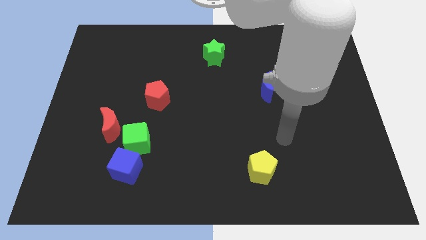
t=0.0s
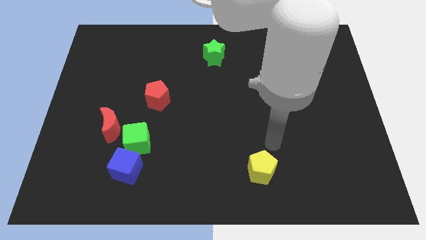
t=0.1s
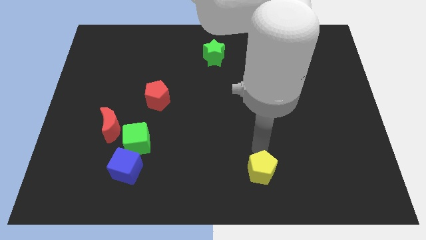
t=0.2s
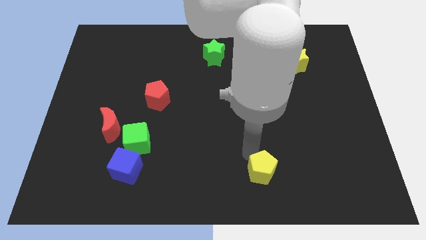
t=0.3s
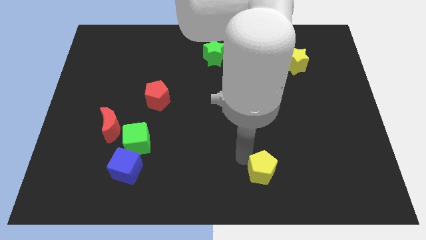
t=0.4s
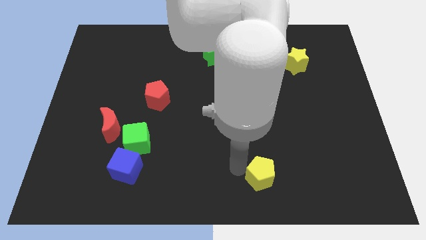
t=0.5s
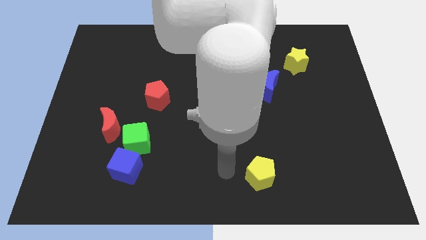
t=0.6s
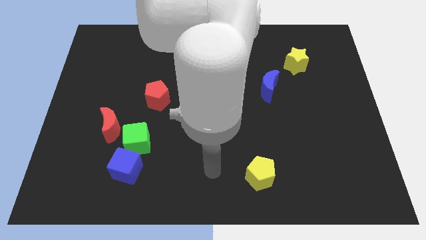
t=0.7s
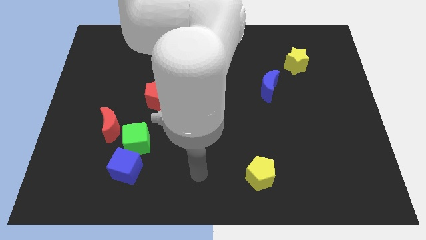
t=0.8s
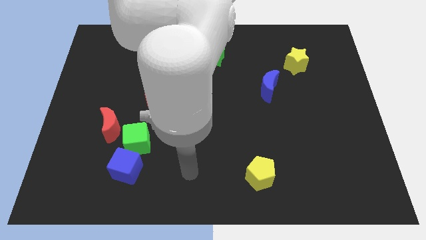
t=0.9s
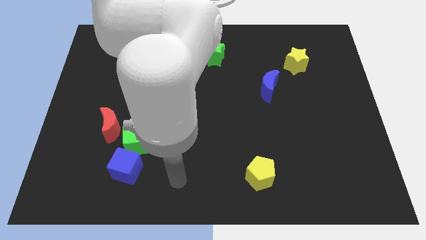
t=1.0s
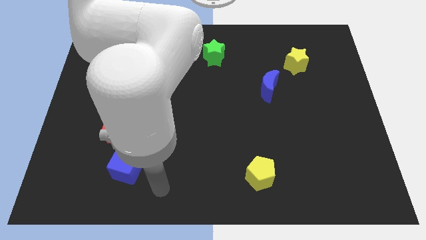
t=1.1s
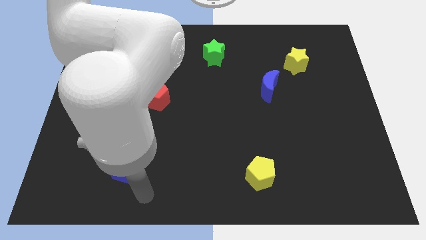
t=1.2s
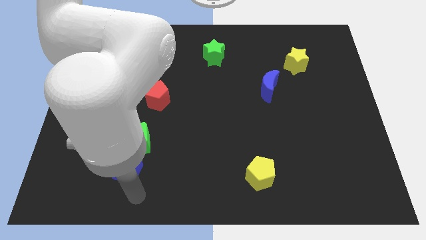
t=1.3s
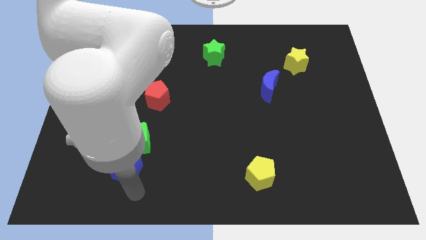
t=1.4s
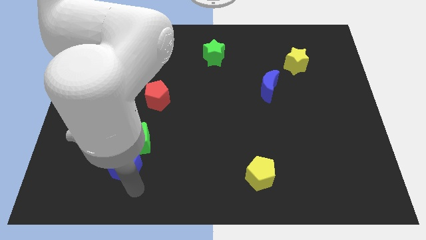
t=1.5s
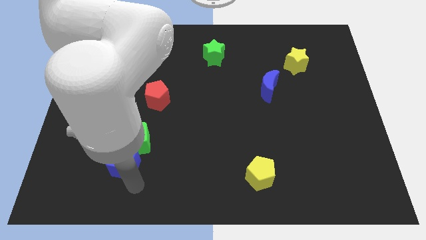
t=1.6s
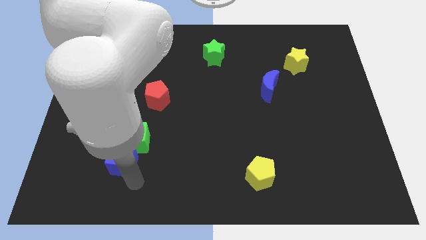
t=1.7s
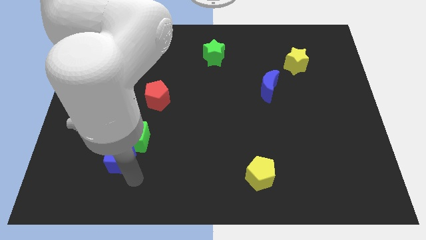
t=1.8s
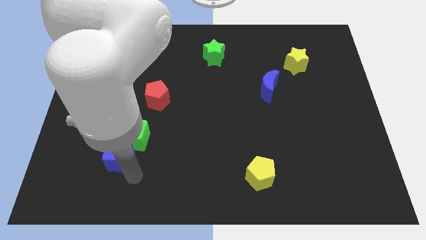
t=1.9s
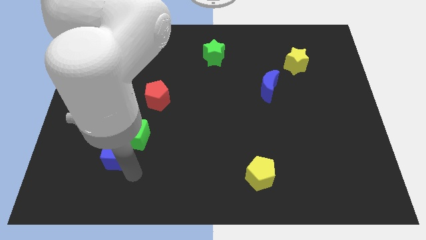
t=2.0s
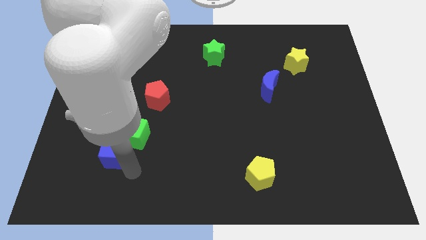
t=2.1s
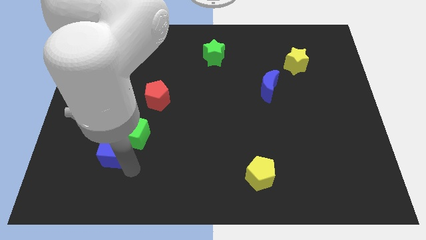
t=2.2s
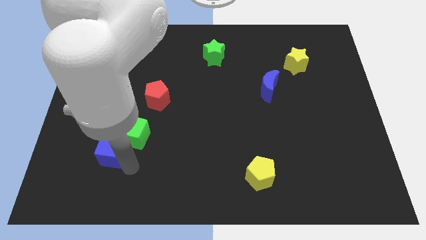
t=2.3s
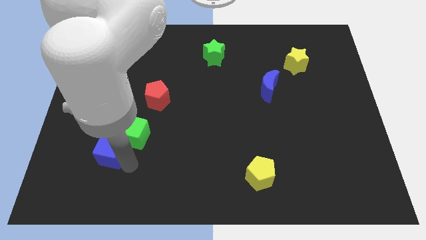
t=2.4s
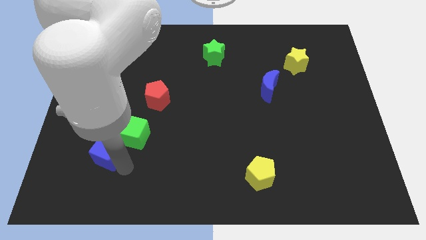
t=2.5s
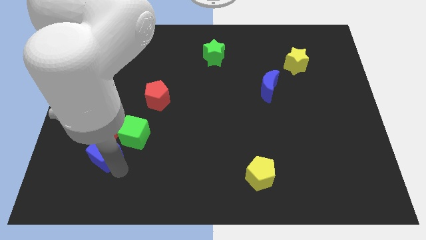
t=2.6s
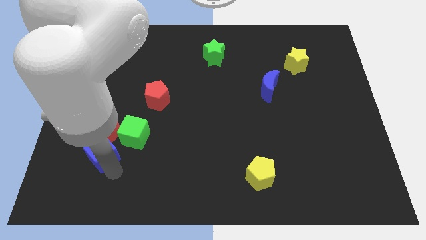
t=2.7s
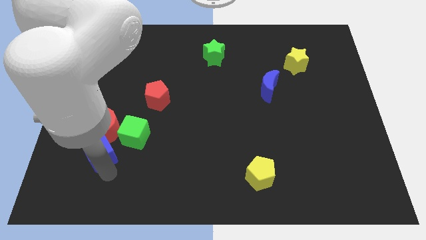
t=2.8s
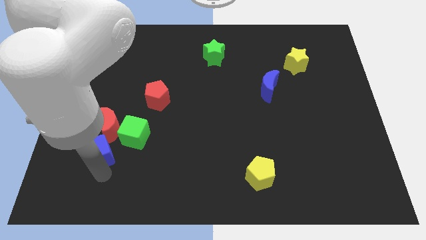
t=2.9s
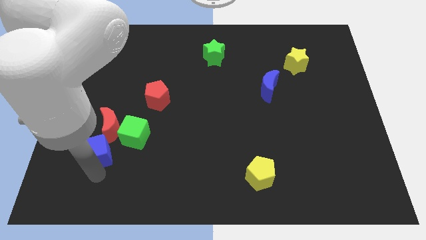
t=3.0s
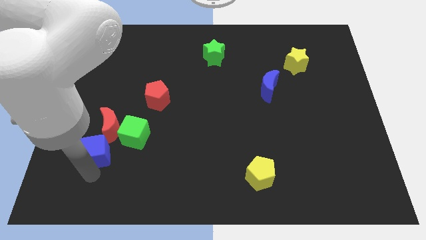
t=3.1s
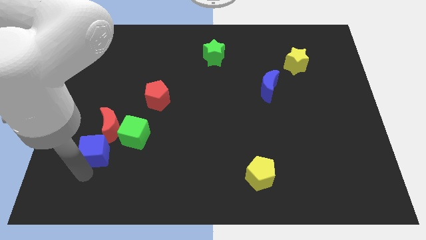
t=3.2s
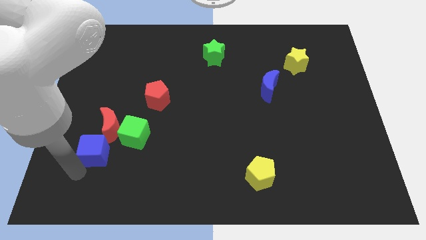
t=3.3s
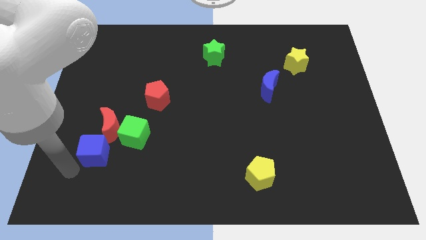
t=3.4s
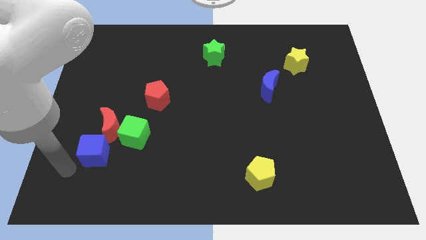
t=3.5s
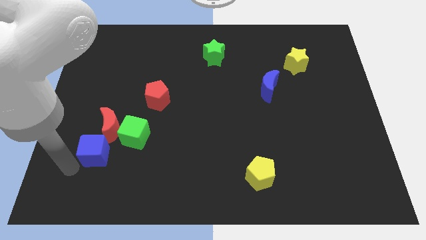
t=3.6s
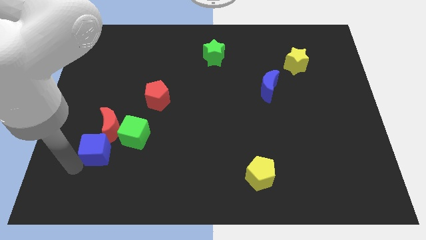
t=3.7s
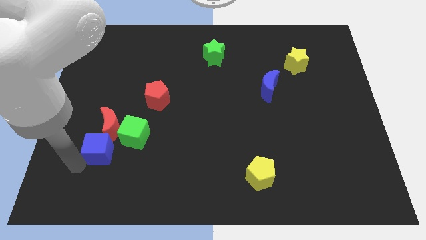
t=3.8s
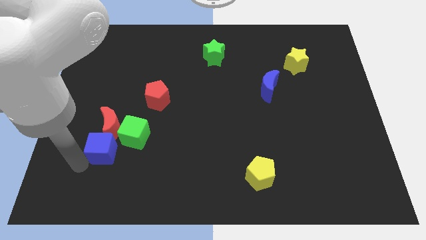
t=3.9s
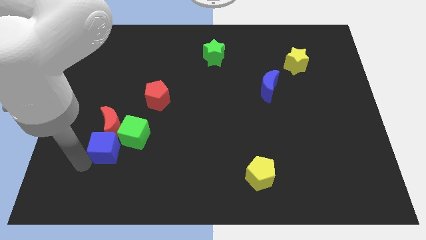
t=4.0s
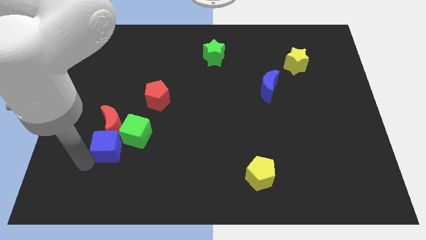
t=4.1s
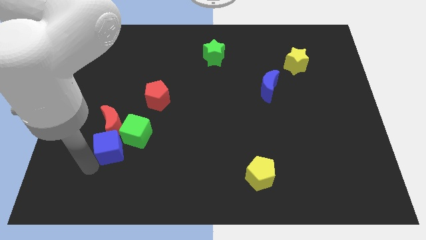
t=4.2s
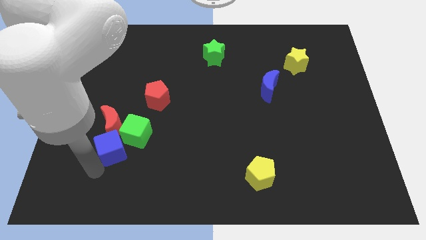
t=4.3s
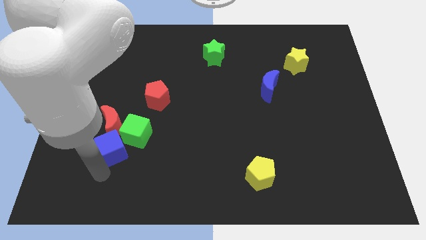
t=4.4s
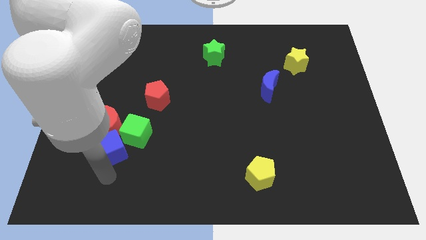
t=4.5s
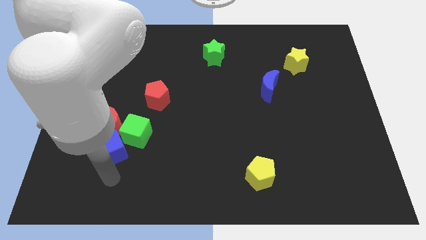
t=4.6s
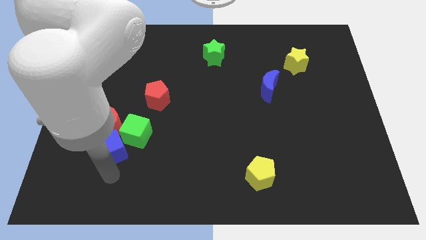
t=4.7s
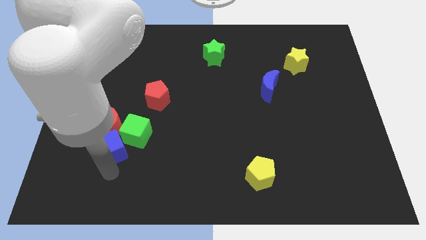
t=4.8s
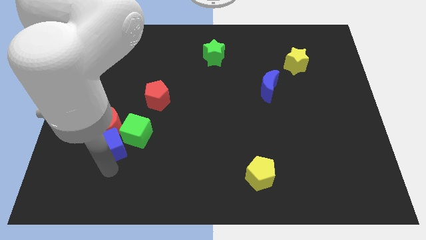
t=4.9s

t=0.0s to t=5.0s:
push the blue cube towards the red moon

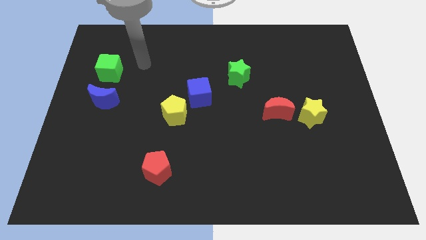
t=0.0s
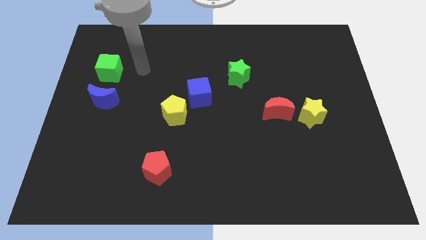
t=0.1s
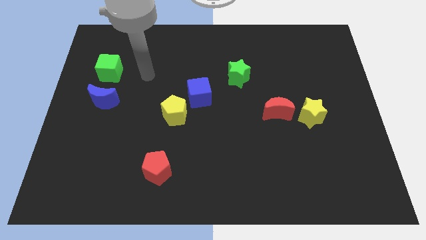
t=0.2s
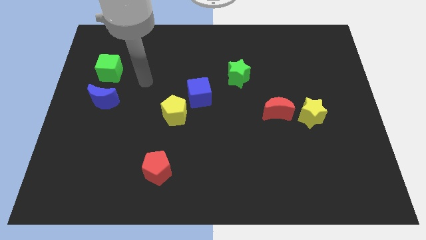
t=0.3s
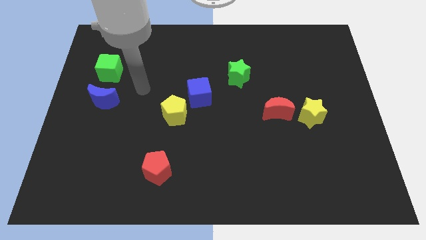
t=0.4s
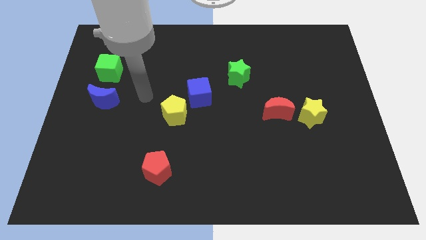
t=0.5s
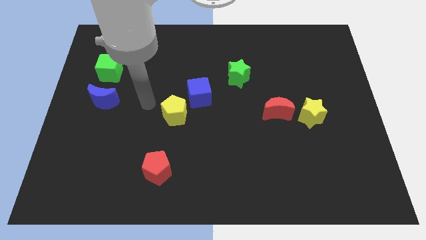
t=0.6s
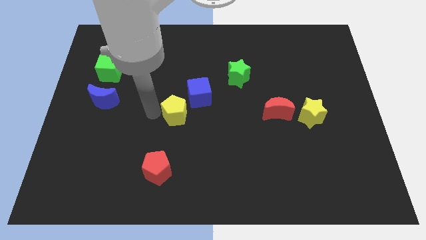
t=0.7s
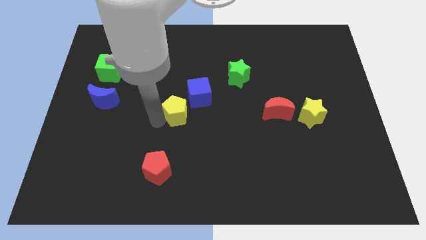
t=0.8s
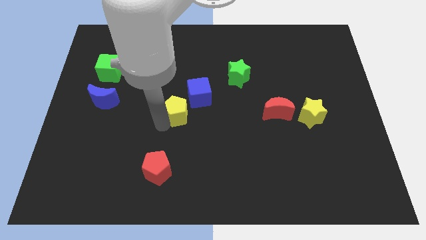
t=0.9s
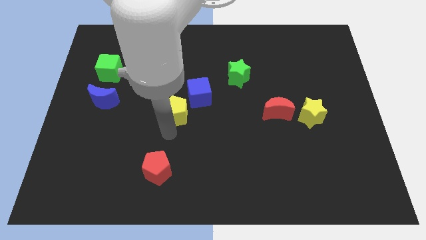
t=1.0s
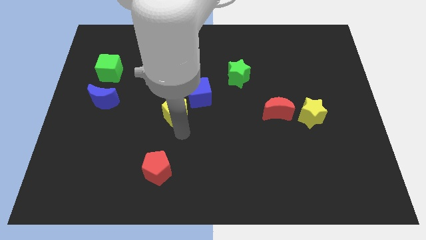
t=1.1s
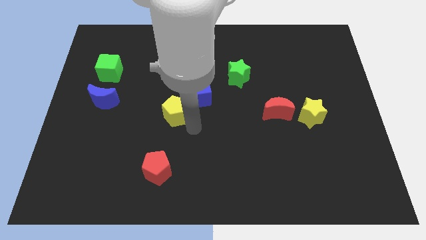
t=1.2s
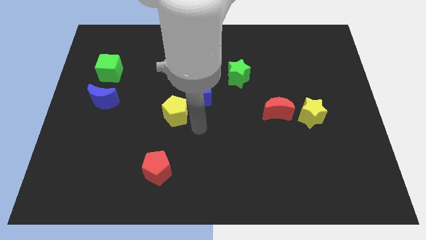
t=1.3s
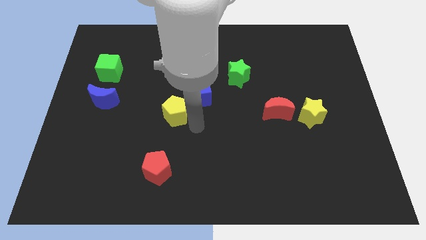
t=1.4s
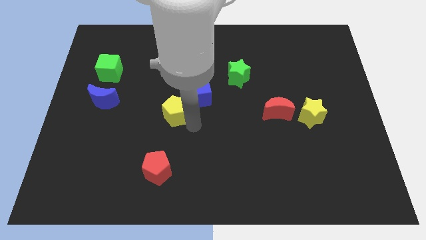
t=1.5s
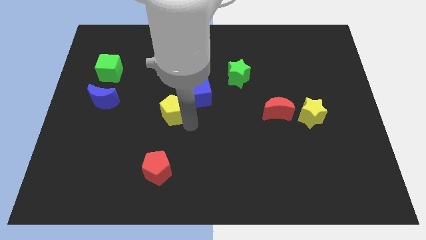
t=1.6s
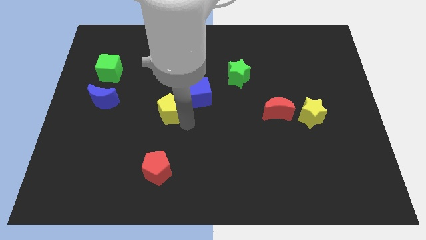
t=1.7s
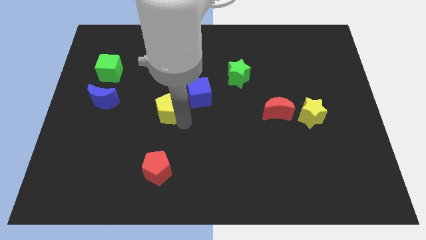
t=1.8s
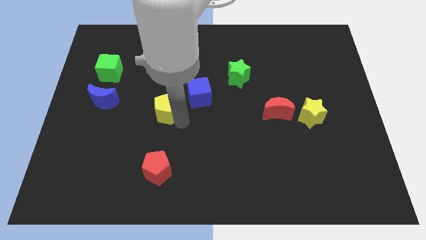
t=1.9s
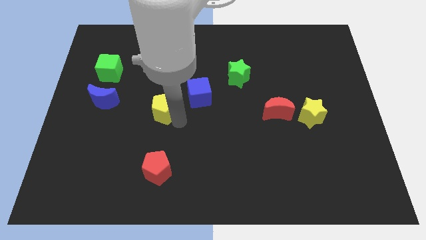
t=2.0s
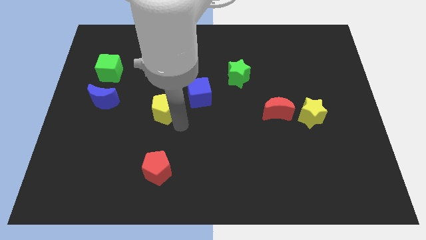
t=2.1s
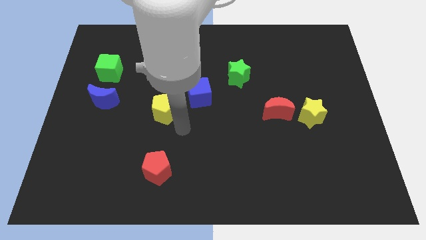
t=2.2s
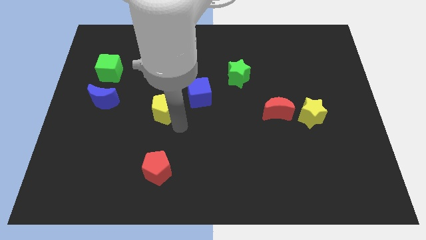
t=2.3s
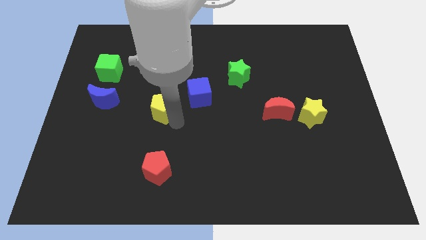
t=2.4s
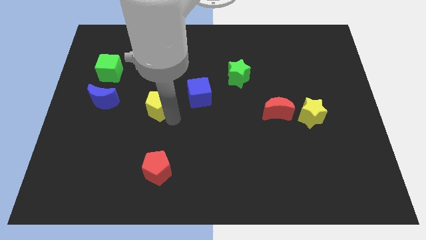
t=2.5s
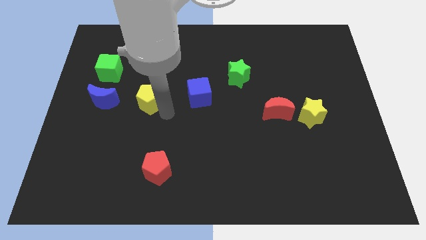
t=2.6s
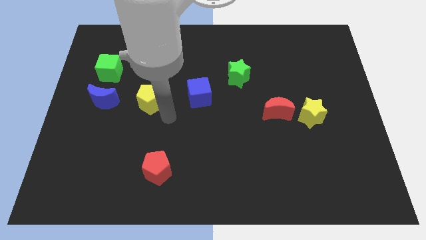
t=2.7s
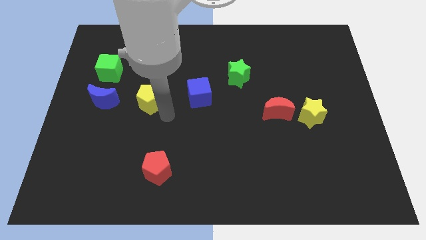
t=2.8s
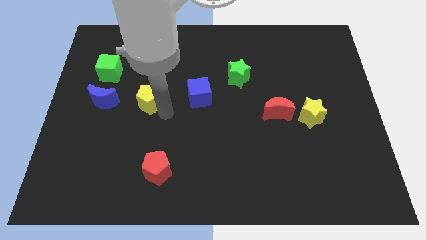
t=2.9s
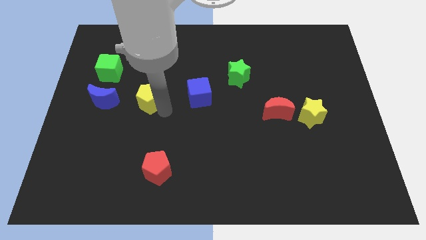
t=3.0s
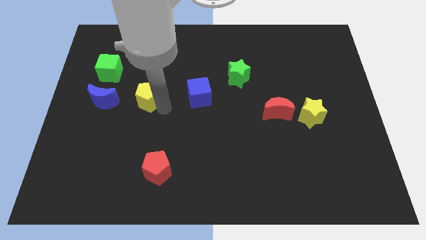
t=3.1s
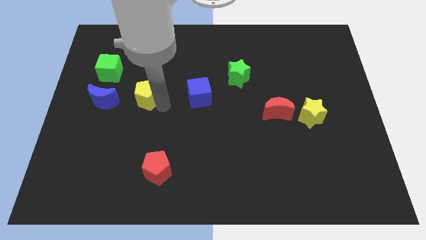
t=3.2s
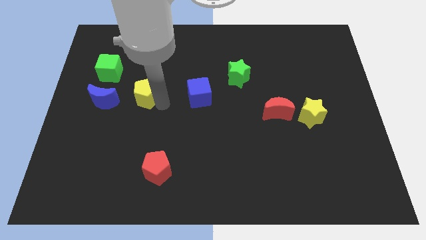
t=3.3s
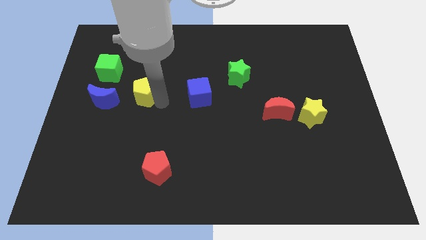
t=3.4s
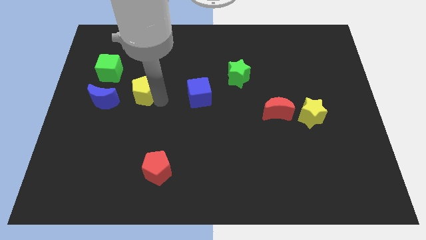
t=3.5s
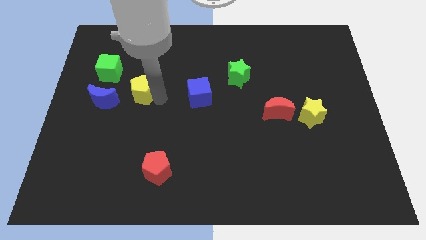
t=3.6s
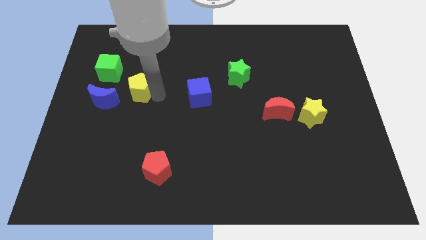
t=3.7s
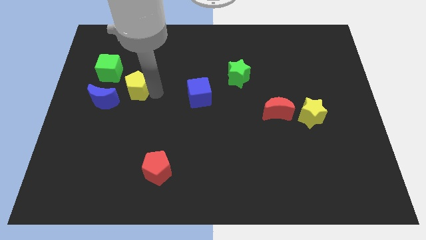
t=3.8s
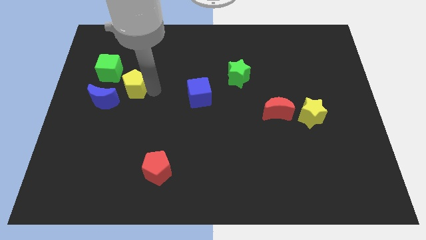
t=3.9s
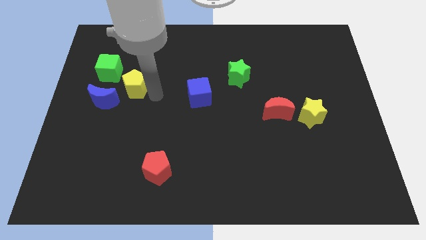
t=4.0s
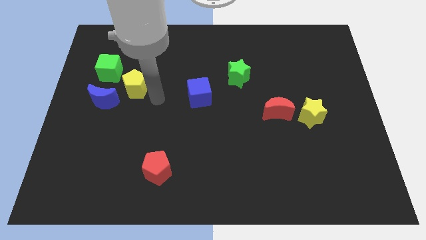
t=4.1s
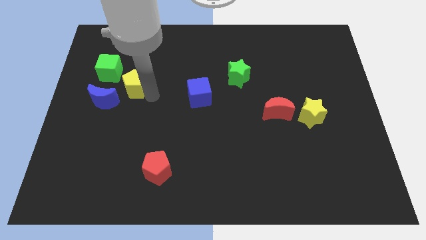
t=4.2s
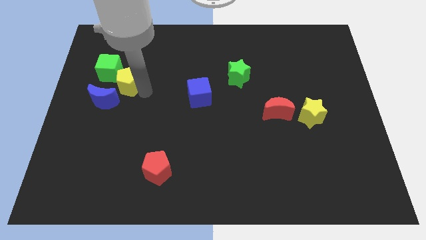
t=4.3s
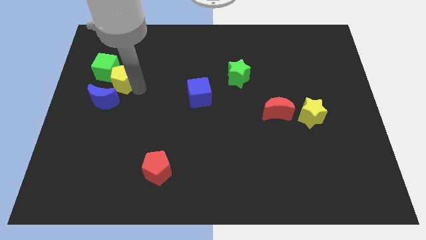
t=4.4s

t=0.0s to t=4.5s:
move the yellow pentagon to the green cube
